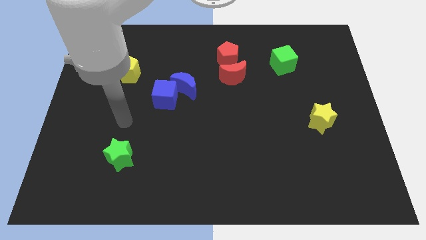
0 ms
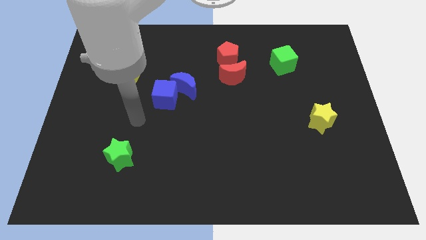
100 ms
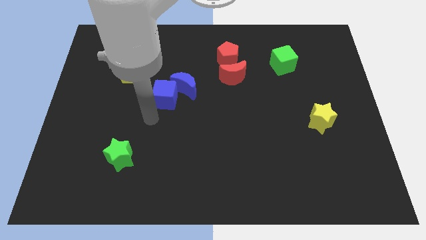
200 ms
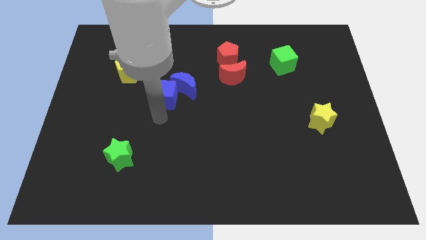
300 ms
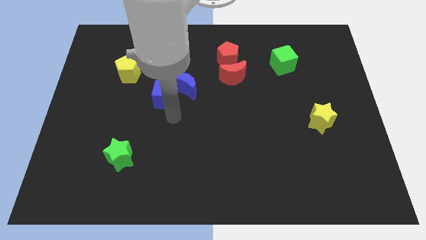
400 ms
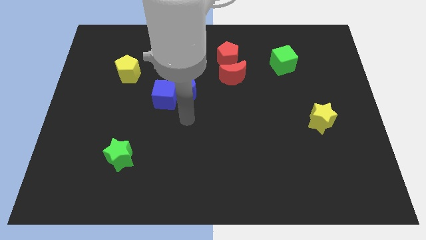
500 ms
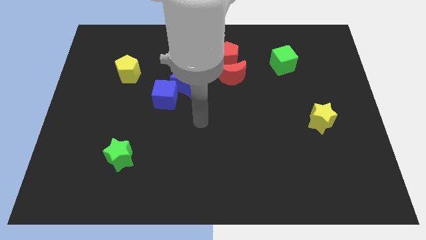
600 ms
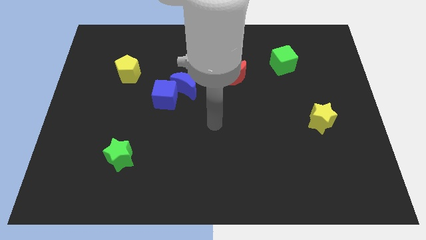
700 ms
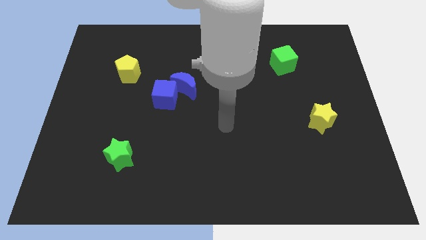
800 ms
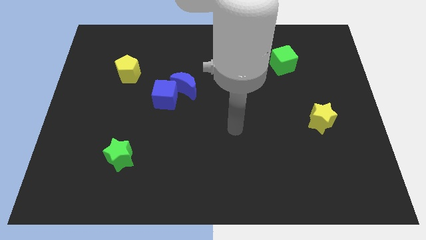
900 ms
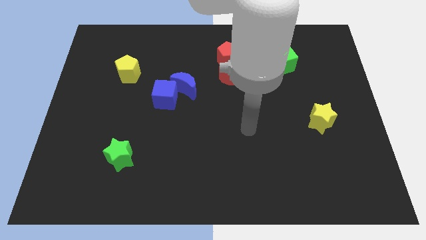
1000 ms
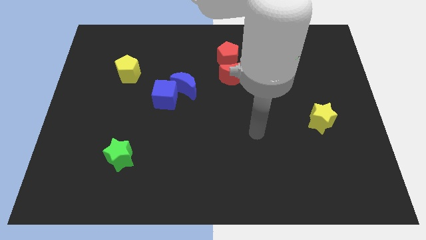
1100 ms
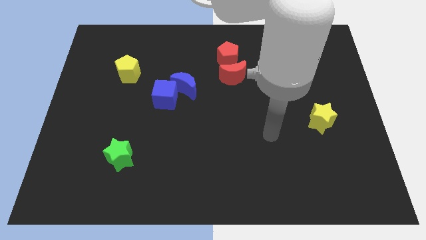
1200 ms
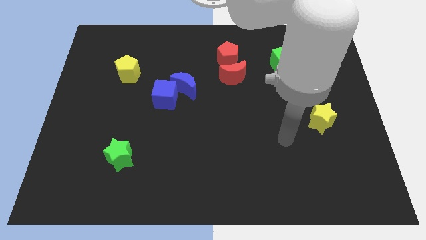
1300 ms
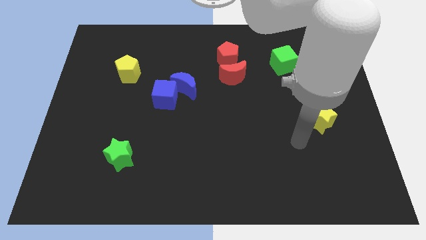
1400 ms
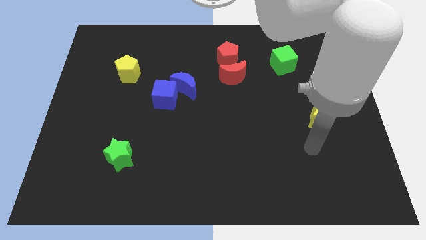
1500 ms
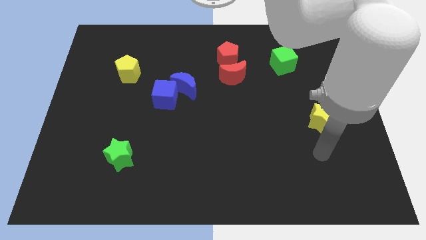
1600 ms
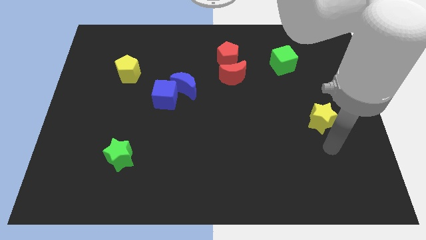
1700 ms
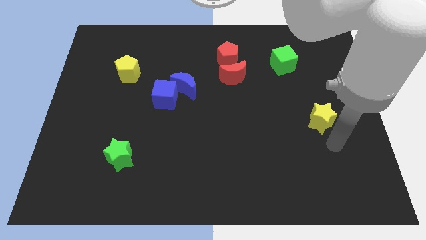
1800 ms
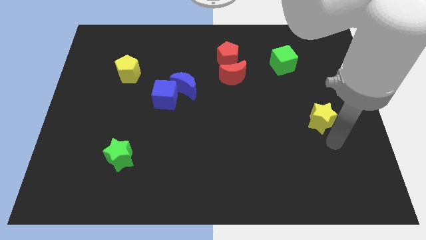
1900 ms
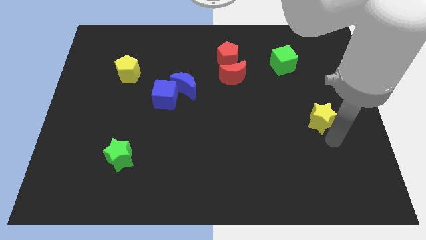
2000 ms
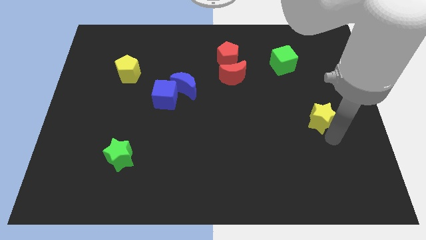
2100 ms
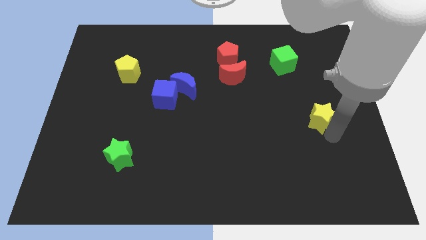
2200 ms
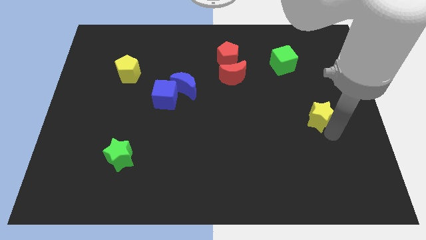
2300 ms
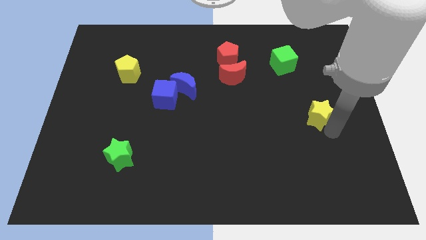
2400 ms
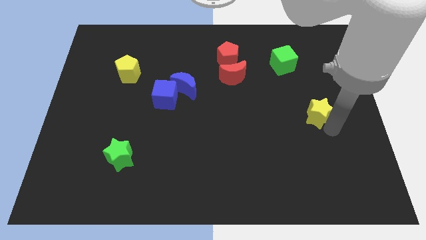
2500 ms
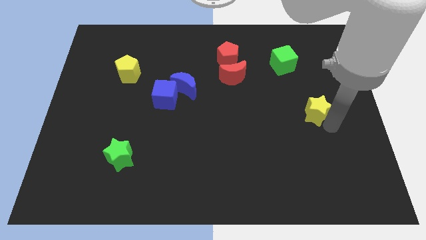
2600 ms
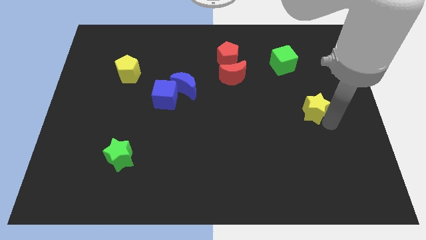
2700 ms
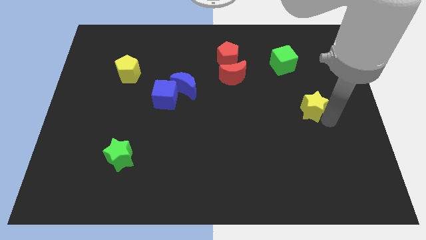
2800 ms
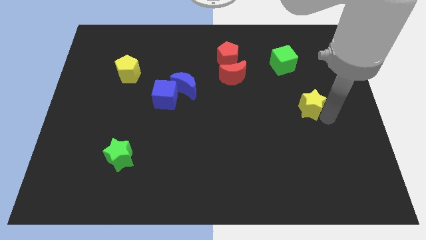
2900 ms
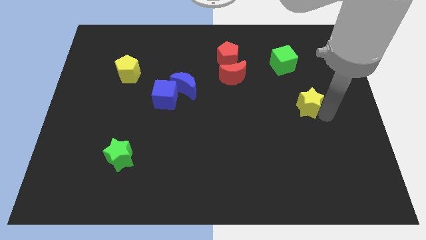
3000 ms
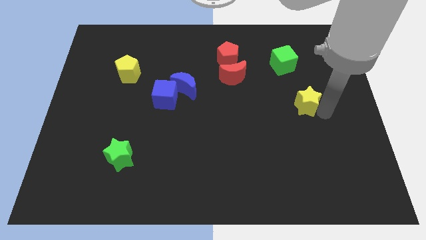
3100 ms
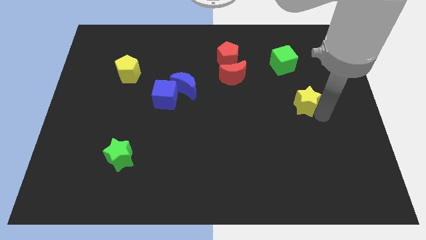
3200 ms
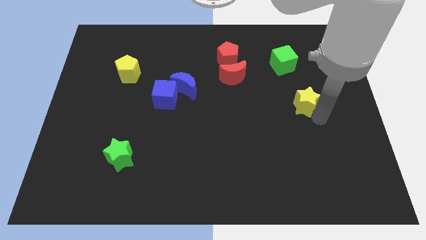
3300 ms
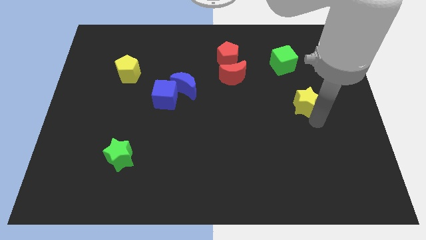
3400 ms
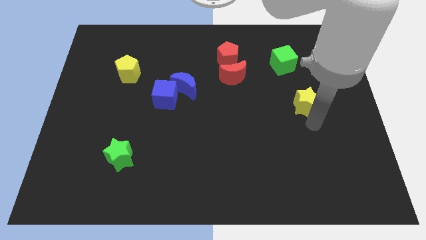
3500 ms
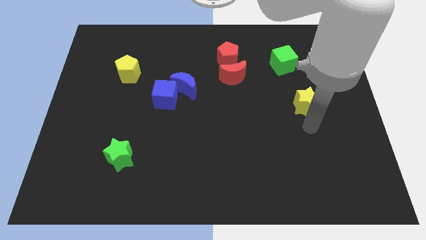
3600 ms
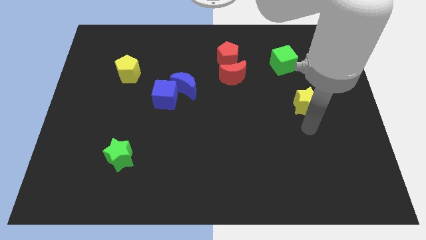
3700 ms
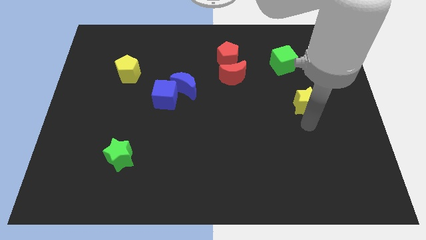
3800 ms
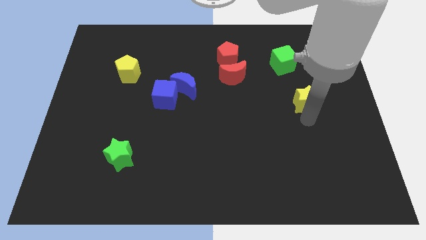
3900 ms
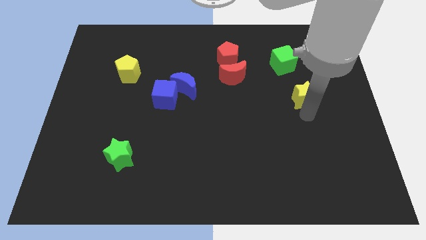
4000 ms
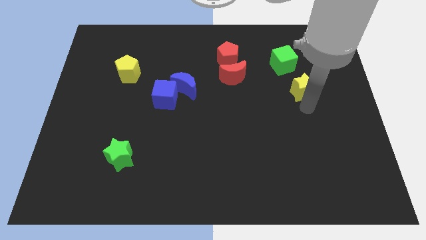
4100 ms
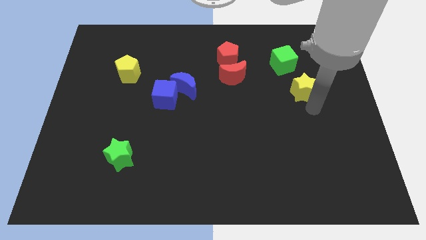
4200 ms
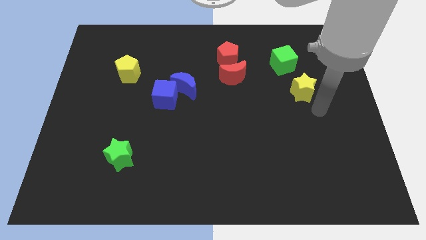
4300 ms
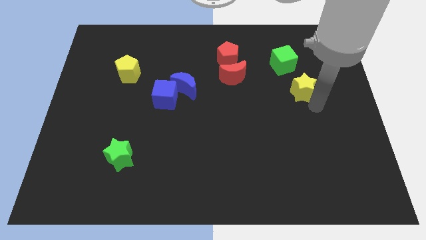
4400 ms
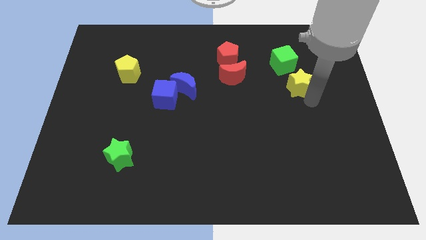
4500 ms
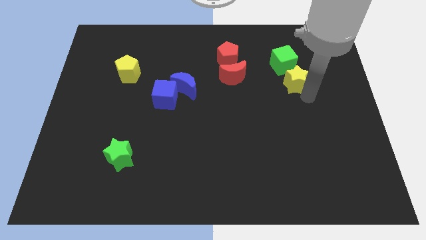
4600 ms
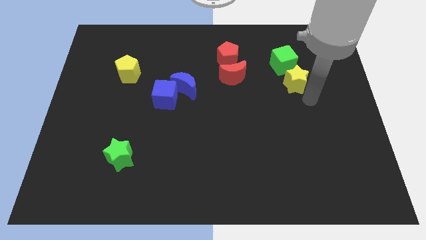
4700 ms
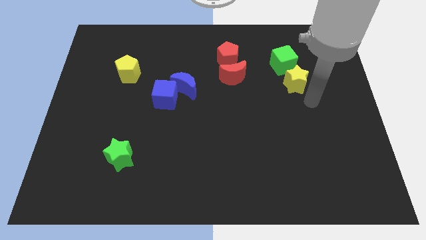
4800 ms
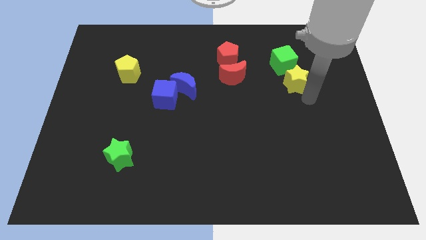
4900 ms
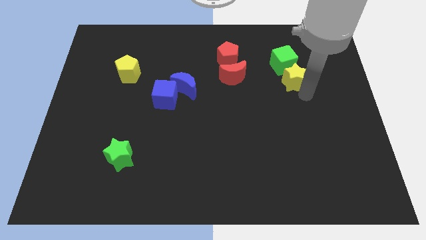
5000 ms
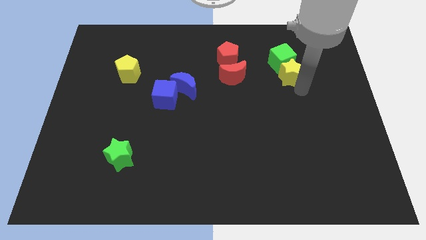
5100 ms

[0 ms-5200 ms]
put the yellow star close to the green cube

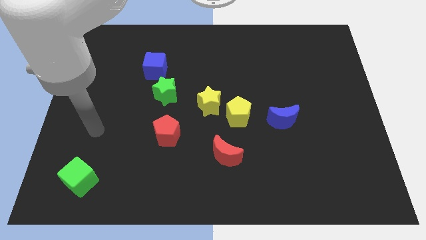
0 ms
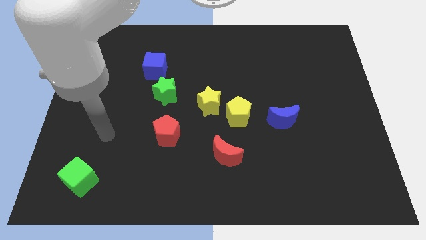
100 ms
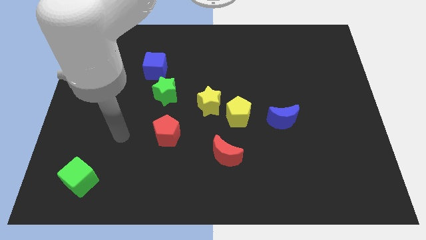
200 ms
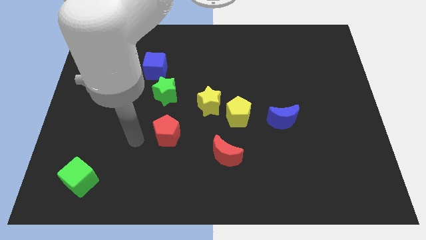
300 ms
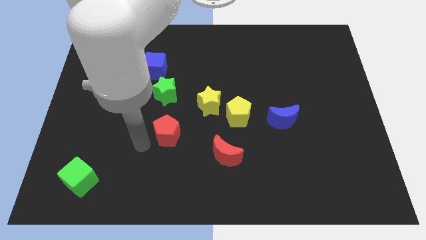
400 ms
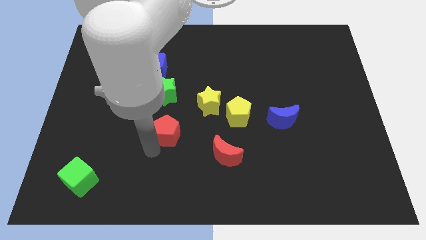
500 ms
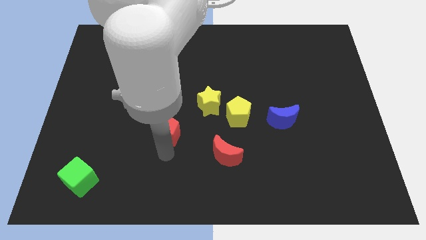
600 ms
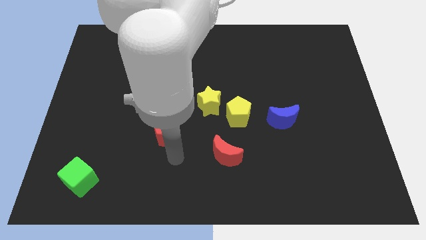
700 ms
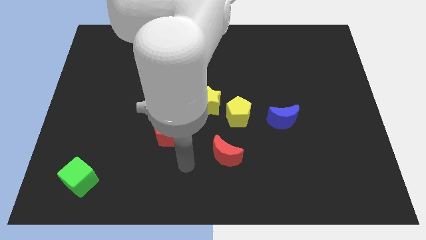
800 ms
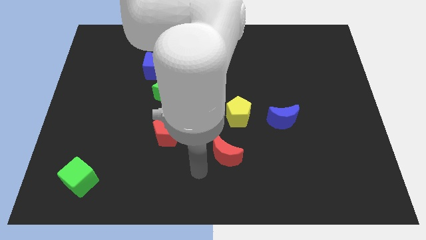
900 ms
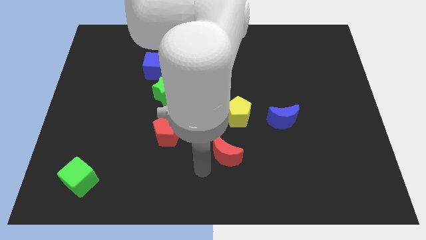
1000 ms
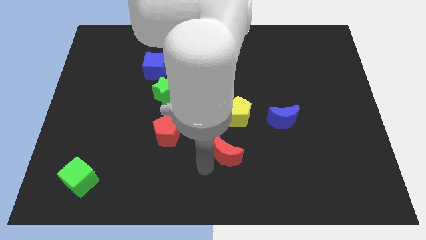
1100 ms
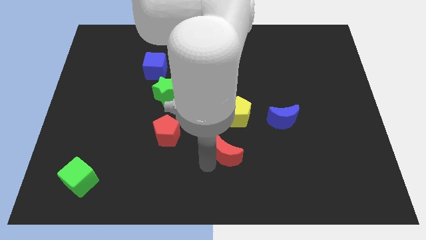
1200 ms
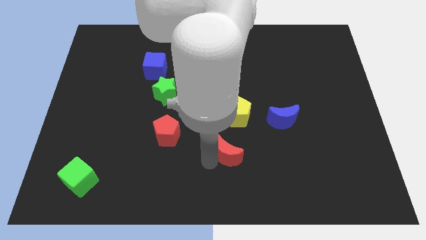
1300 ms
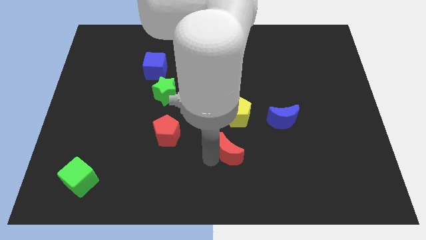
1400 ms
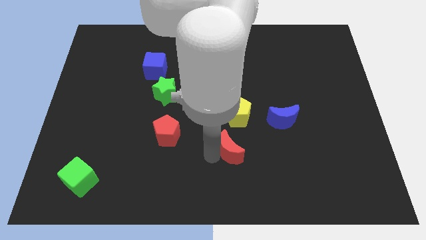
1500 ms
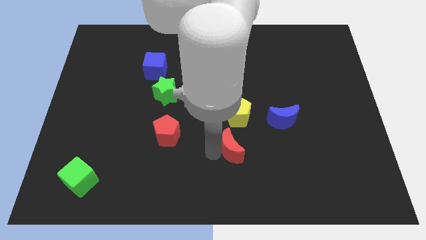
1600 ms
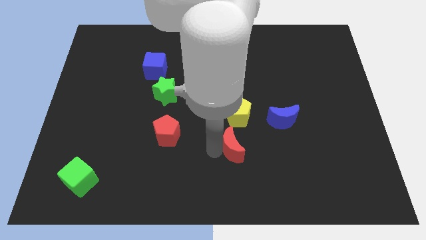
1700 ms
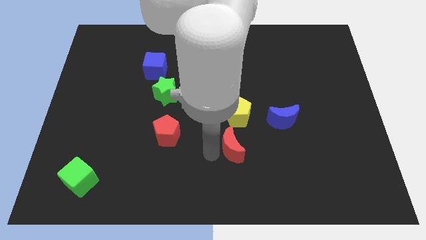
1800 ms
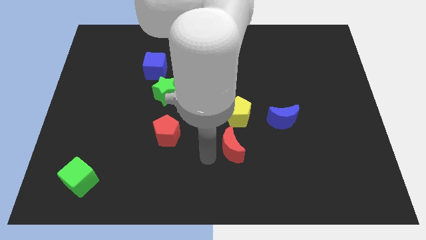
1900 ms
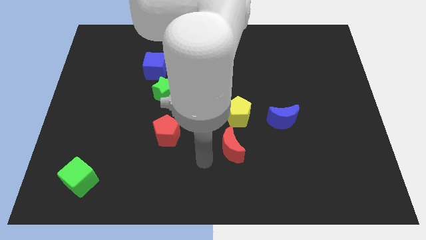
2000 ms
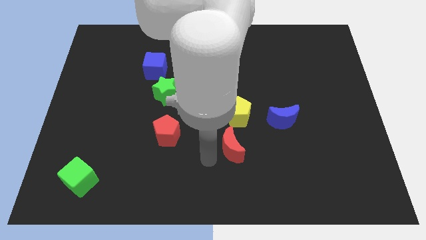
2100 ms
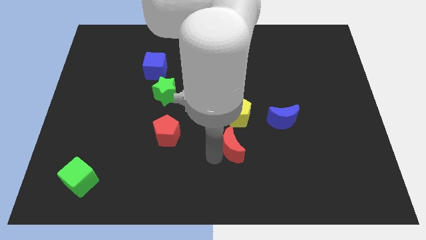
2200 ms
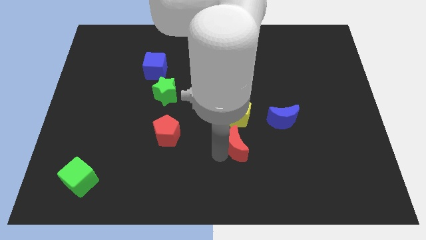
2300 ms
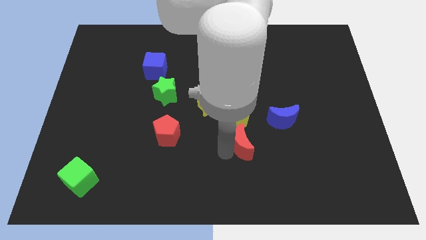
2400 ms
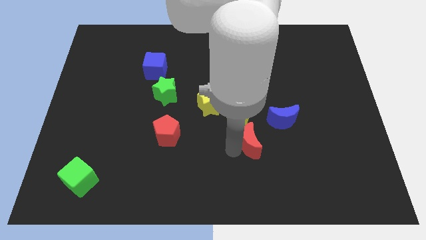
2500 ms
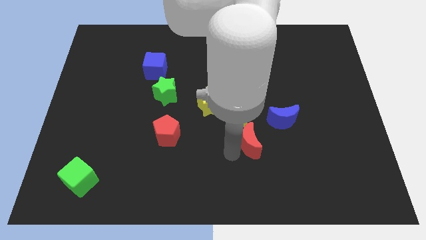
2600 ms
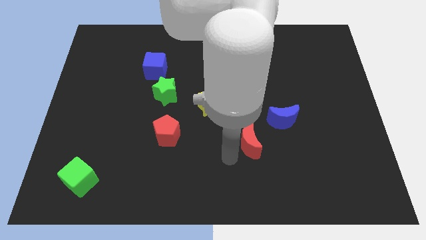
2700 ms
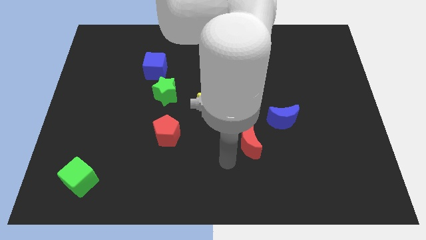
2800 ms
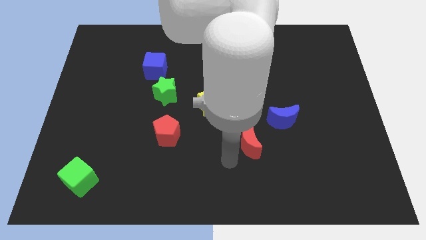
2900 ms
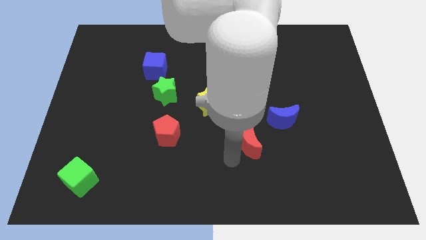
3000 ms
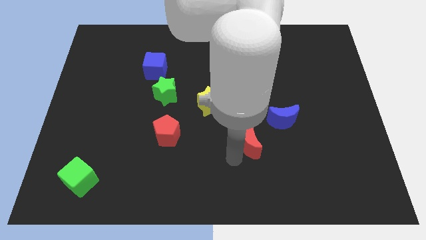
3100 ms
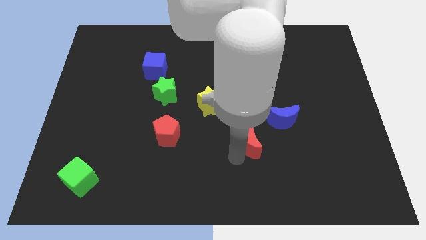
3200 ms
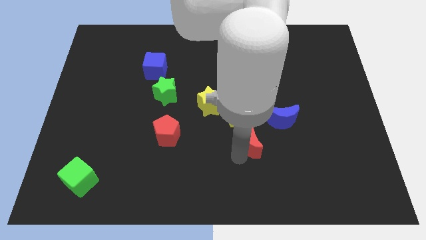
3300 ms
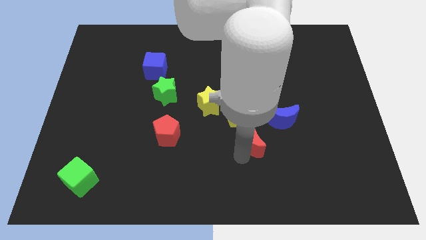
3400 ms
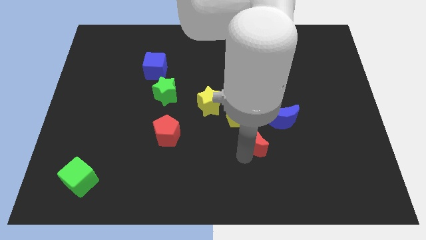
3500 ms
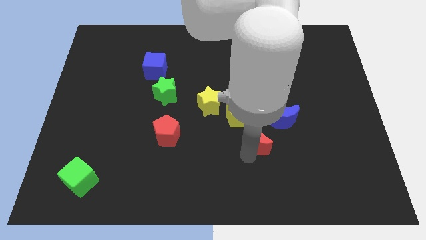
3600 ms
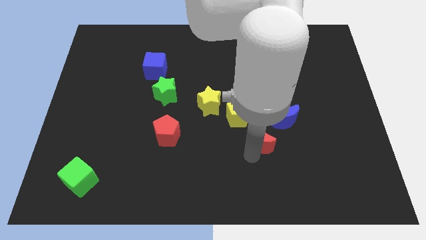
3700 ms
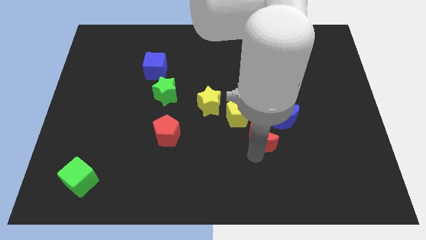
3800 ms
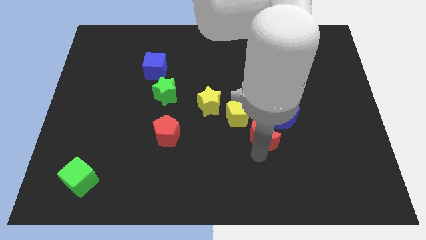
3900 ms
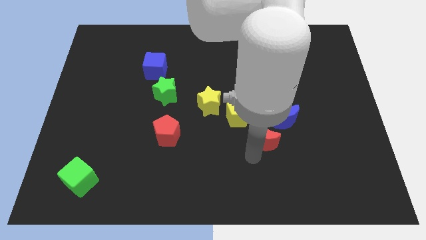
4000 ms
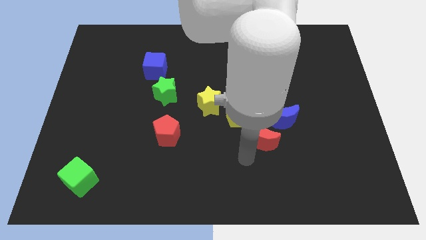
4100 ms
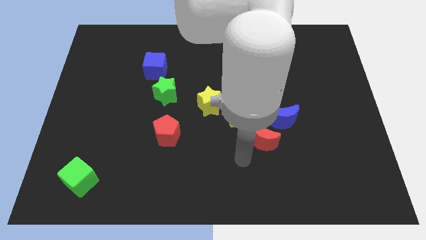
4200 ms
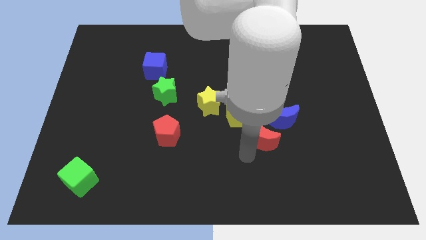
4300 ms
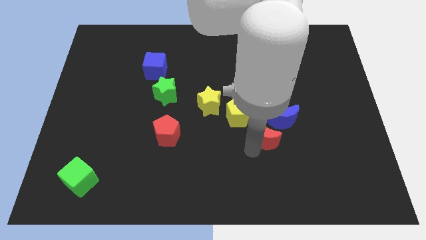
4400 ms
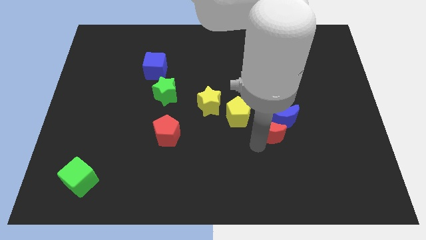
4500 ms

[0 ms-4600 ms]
move the red moon next to the blue moon
